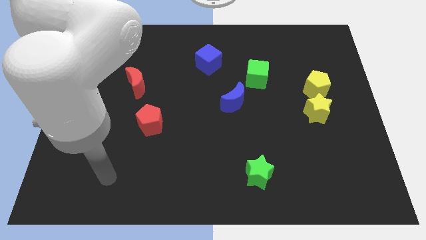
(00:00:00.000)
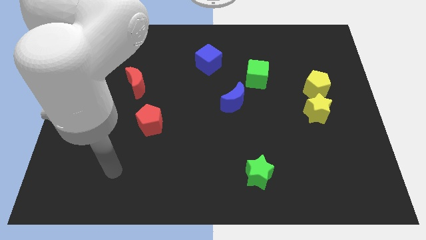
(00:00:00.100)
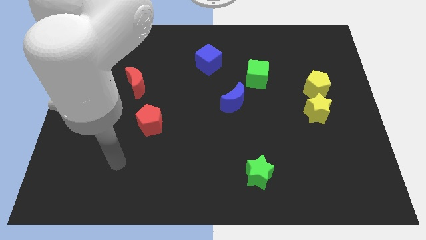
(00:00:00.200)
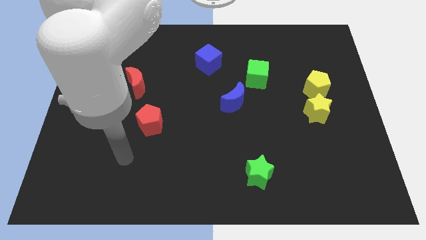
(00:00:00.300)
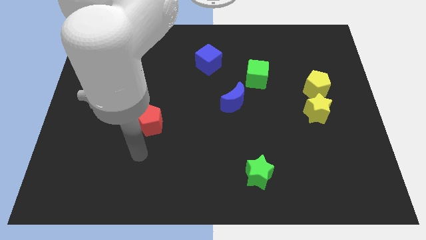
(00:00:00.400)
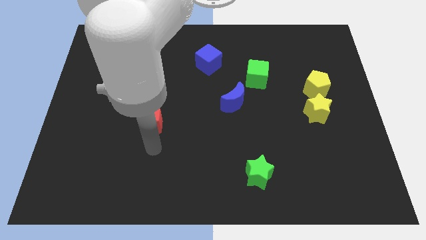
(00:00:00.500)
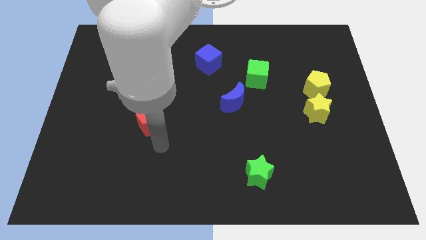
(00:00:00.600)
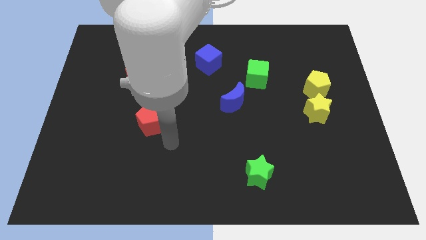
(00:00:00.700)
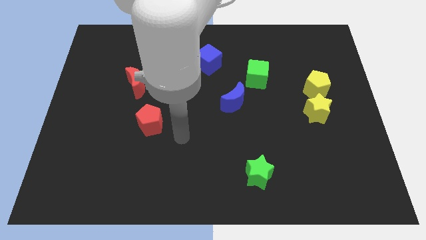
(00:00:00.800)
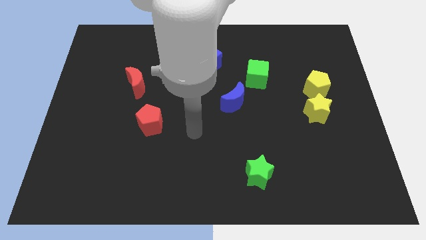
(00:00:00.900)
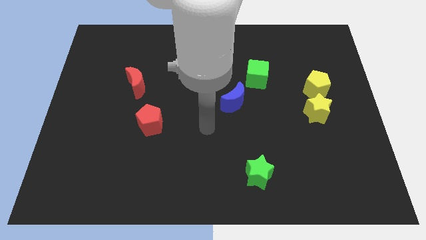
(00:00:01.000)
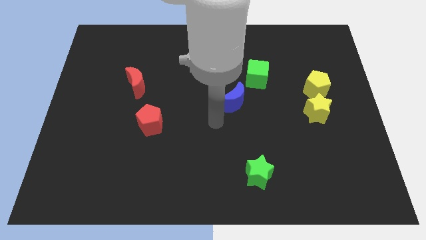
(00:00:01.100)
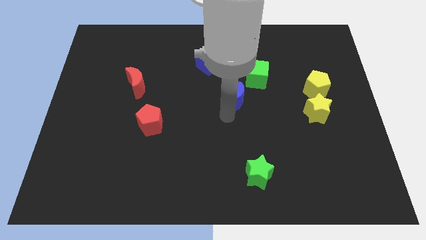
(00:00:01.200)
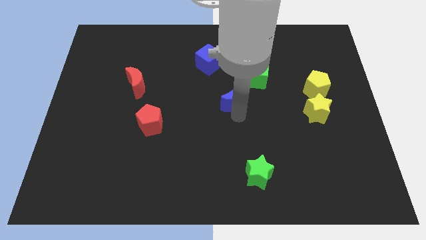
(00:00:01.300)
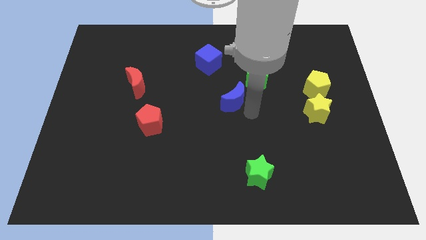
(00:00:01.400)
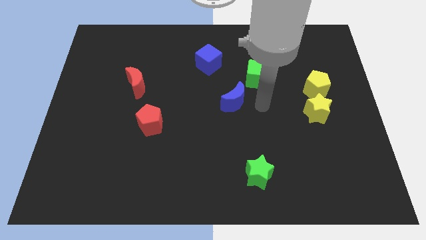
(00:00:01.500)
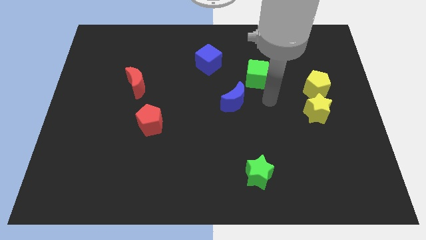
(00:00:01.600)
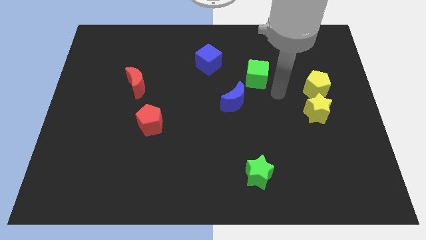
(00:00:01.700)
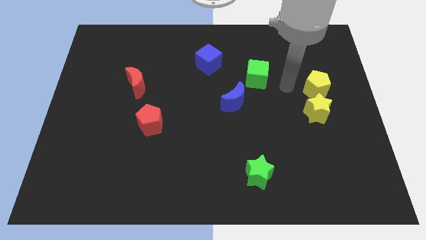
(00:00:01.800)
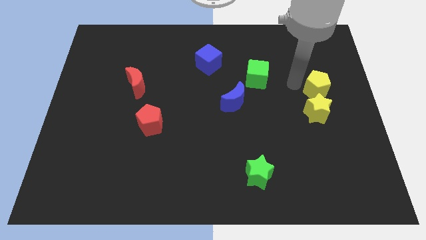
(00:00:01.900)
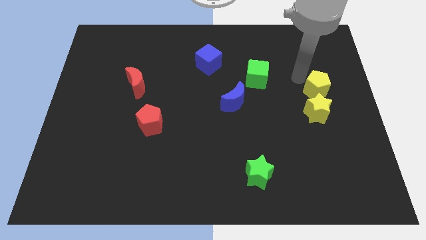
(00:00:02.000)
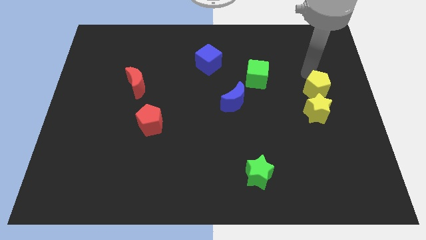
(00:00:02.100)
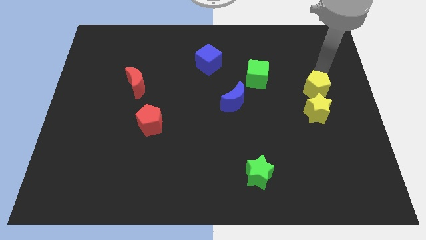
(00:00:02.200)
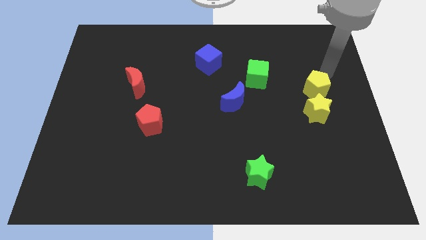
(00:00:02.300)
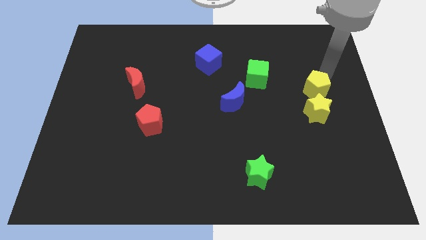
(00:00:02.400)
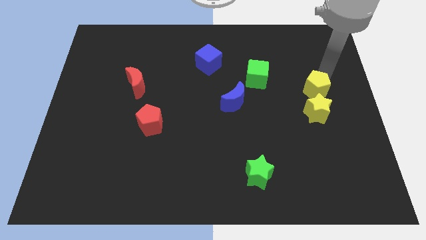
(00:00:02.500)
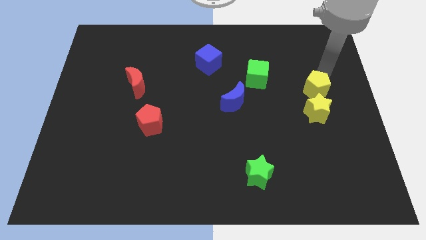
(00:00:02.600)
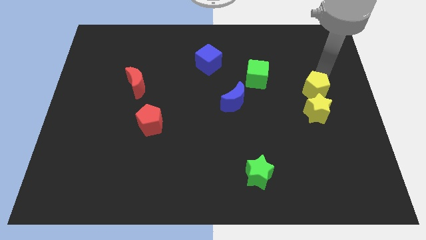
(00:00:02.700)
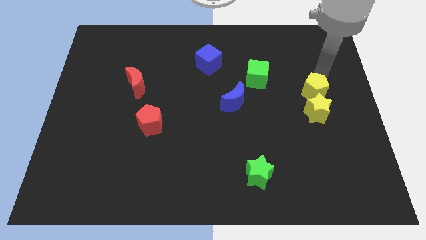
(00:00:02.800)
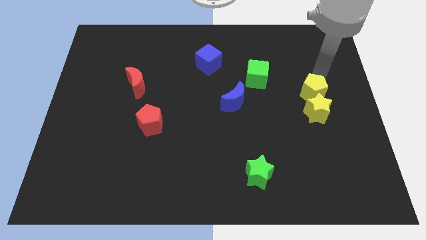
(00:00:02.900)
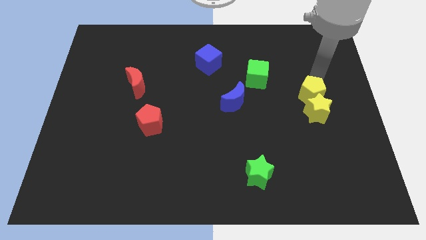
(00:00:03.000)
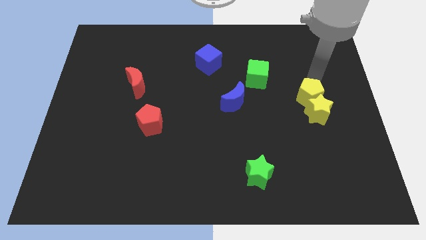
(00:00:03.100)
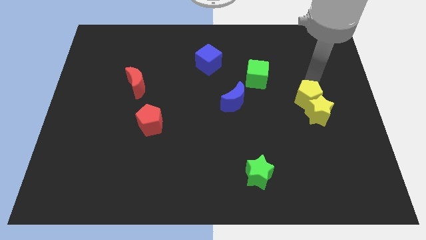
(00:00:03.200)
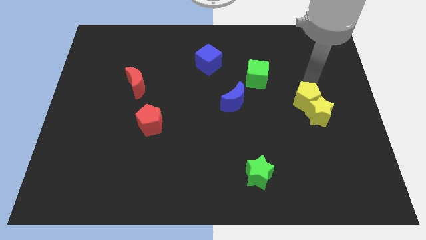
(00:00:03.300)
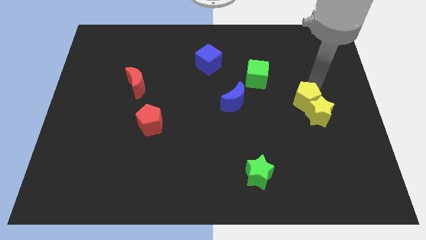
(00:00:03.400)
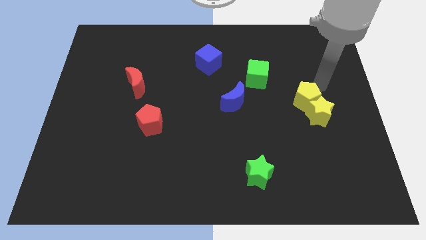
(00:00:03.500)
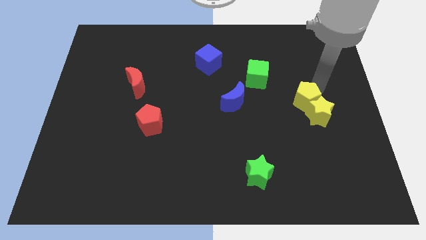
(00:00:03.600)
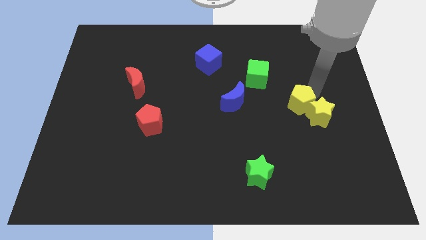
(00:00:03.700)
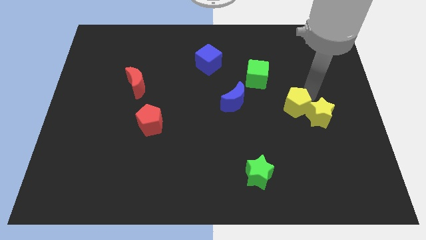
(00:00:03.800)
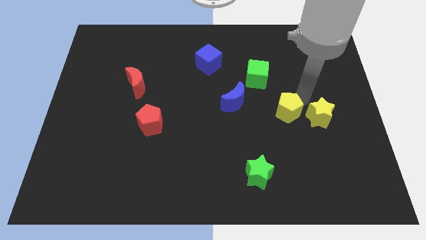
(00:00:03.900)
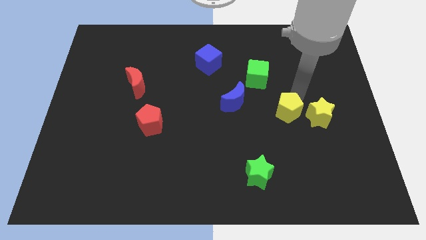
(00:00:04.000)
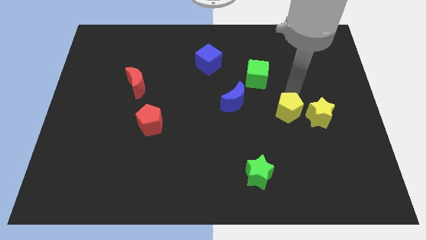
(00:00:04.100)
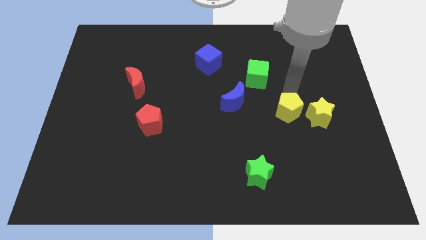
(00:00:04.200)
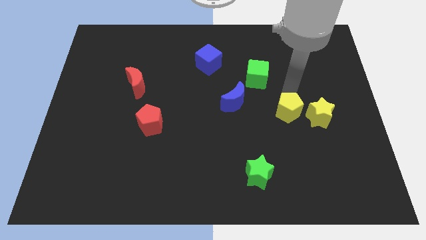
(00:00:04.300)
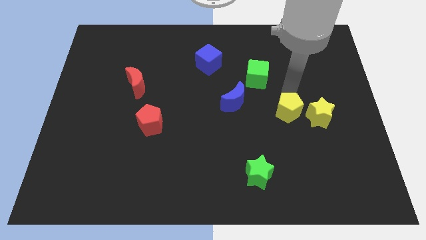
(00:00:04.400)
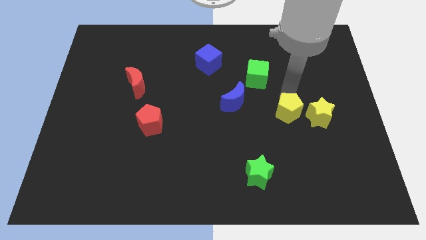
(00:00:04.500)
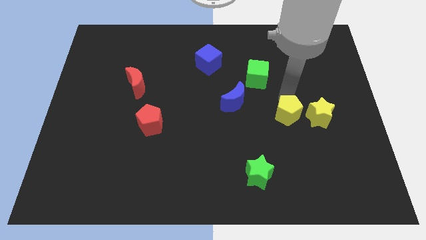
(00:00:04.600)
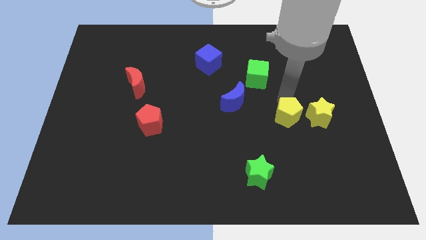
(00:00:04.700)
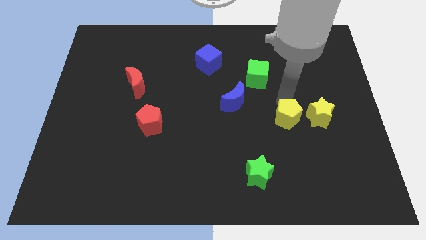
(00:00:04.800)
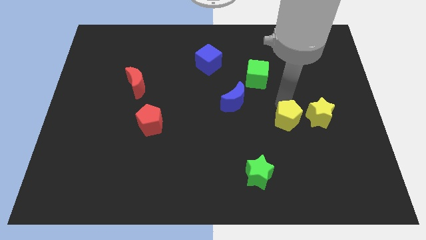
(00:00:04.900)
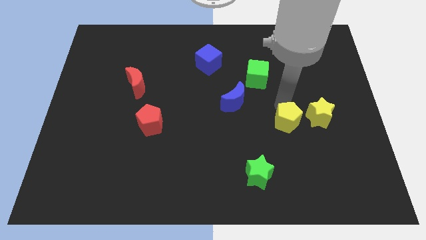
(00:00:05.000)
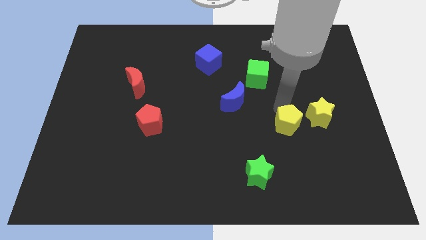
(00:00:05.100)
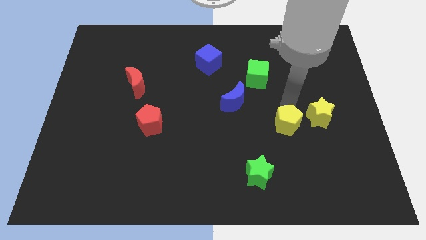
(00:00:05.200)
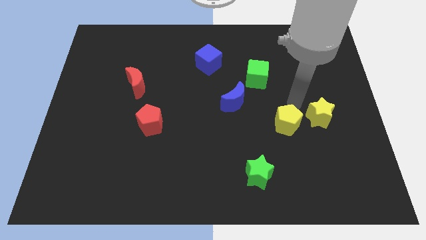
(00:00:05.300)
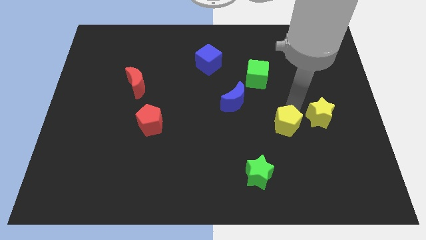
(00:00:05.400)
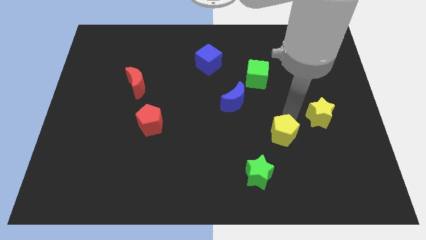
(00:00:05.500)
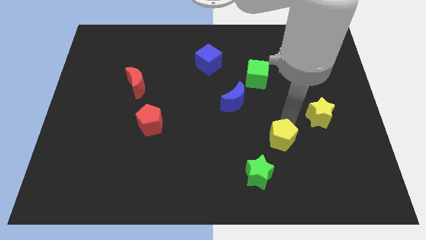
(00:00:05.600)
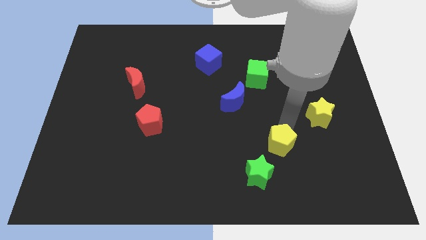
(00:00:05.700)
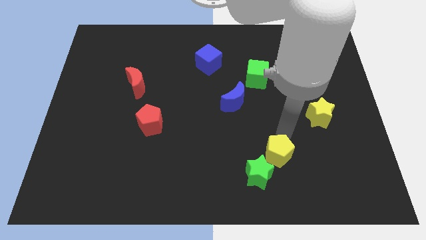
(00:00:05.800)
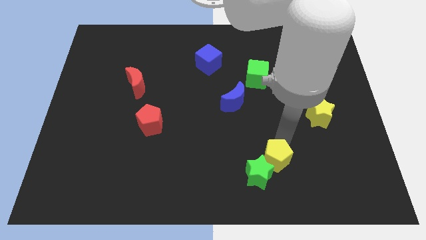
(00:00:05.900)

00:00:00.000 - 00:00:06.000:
slide the yellow pentagon close to the green star

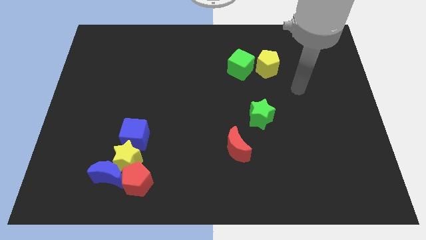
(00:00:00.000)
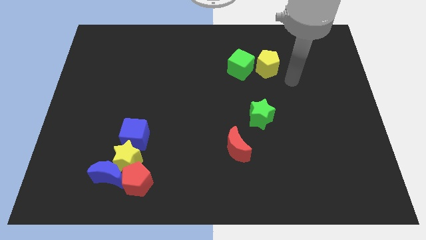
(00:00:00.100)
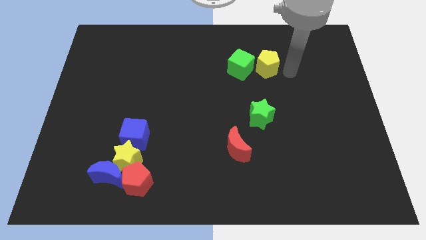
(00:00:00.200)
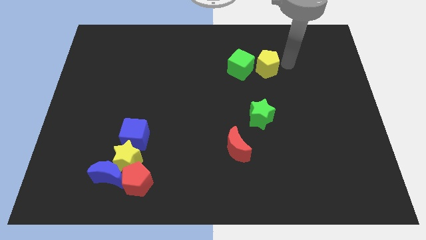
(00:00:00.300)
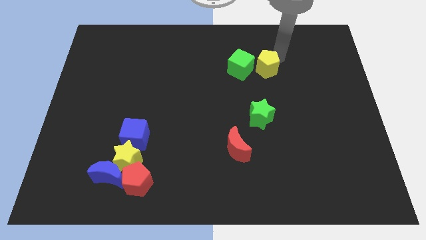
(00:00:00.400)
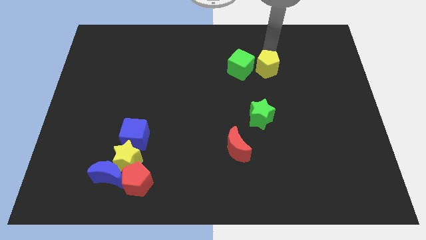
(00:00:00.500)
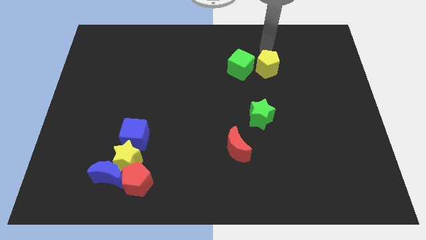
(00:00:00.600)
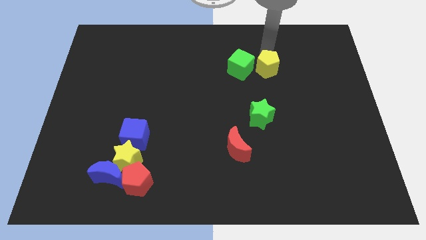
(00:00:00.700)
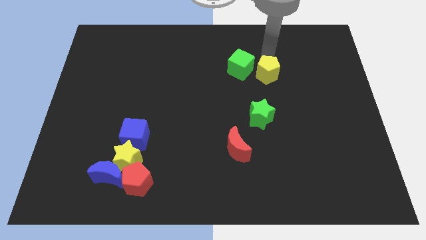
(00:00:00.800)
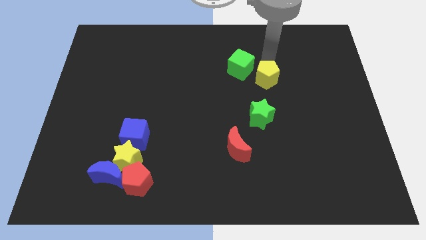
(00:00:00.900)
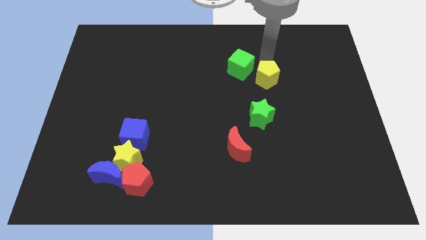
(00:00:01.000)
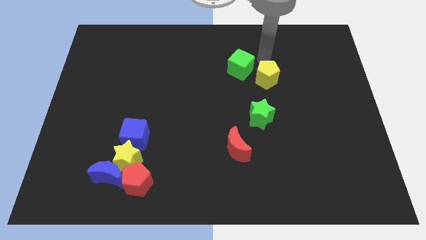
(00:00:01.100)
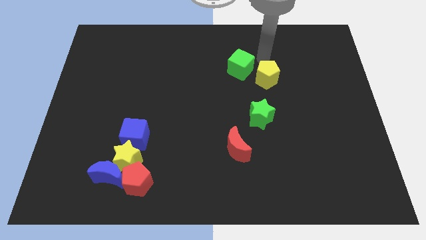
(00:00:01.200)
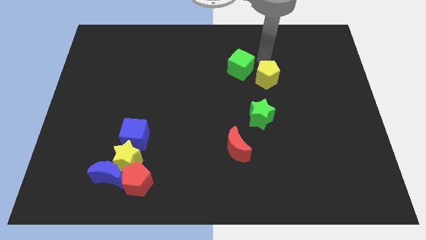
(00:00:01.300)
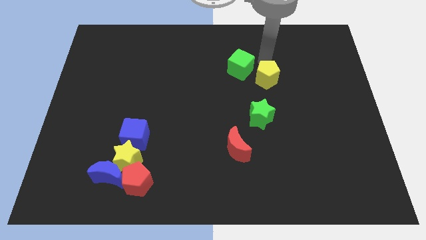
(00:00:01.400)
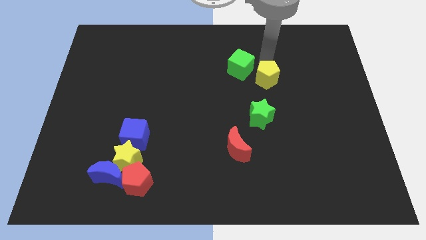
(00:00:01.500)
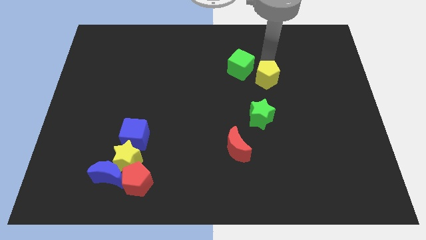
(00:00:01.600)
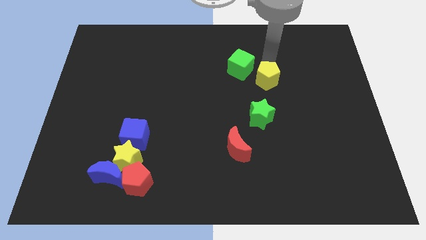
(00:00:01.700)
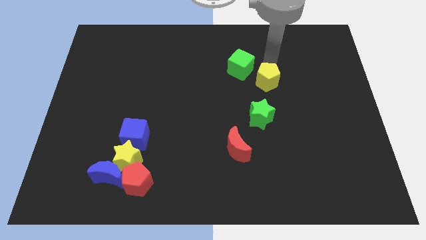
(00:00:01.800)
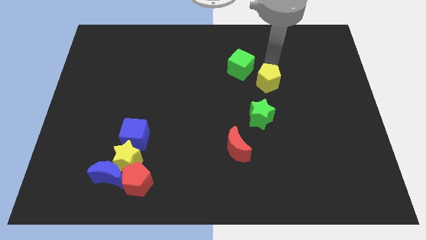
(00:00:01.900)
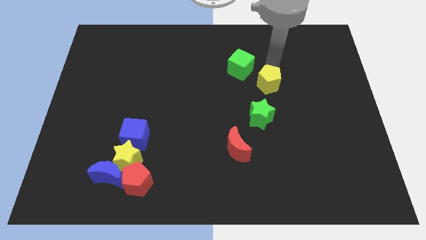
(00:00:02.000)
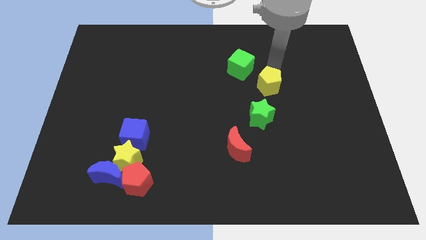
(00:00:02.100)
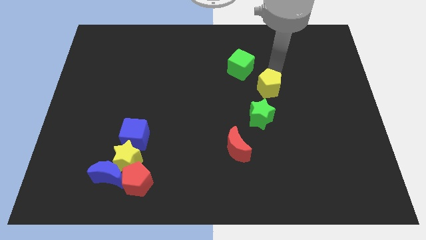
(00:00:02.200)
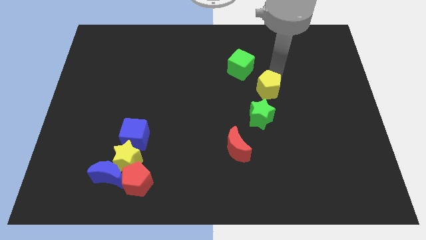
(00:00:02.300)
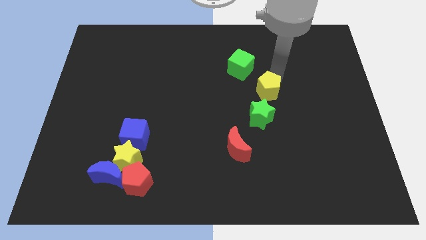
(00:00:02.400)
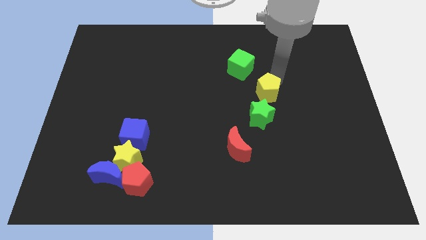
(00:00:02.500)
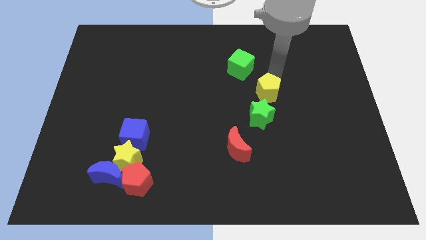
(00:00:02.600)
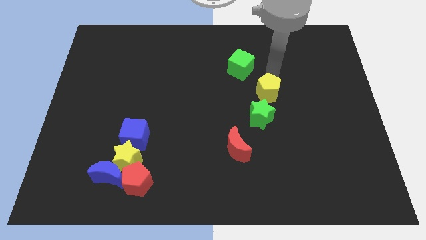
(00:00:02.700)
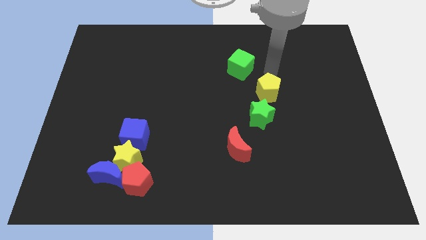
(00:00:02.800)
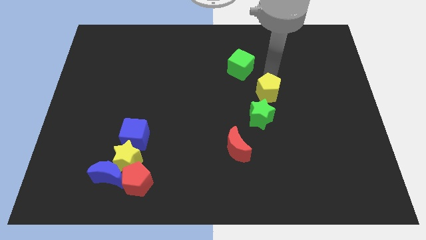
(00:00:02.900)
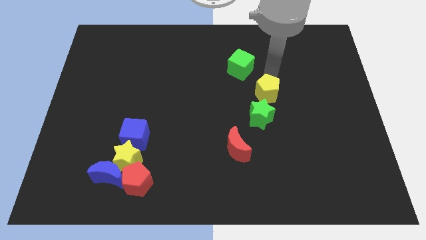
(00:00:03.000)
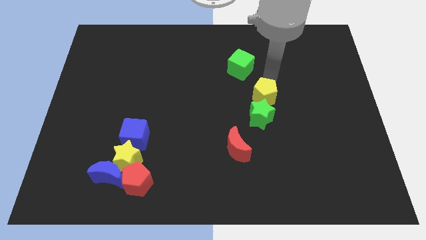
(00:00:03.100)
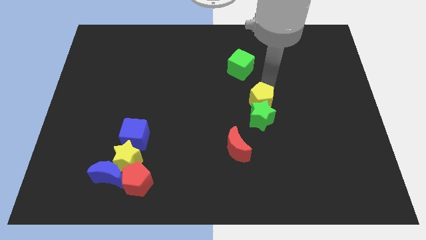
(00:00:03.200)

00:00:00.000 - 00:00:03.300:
move the yellow pentagon towards the green star
